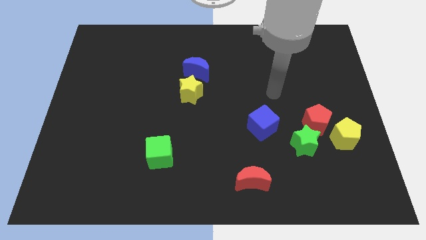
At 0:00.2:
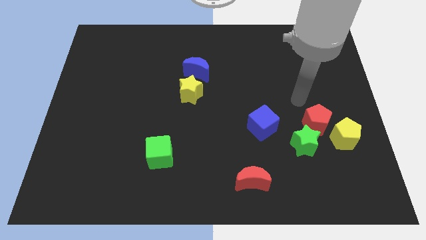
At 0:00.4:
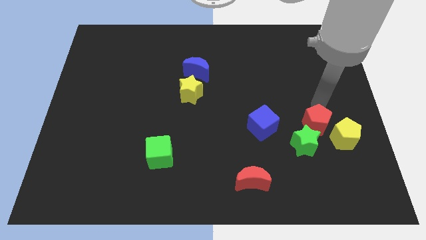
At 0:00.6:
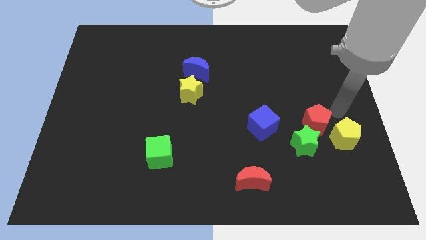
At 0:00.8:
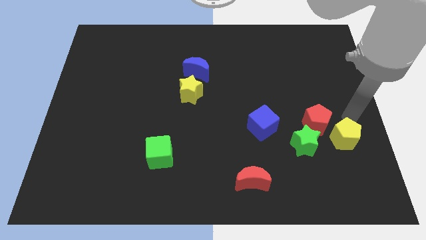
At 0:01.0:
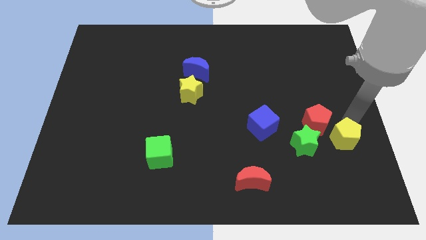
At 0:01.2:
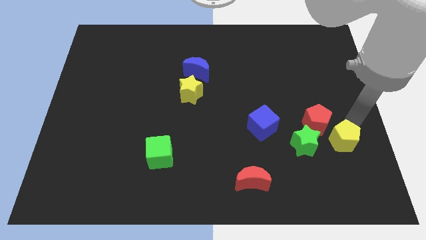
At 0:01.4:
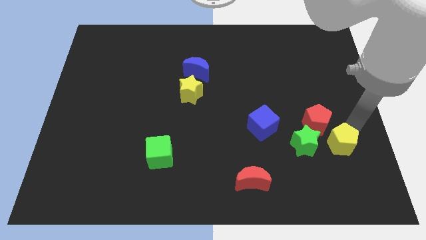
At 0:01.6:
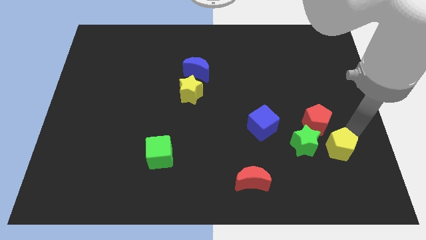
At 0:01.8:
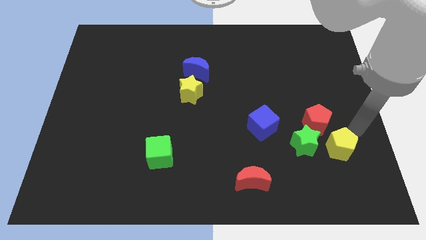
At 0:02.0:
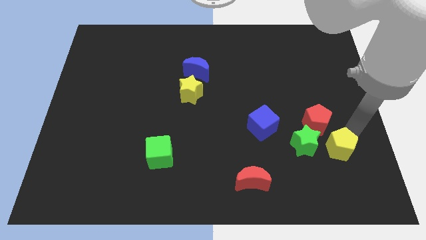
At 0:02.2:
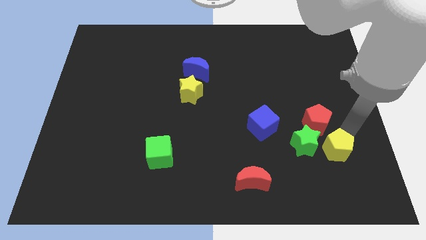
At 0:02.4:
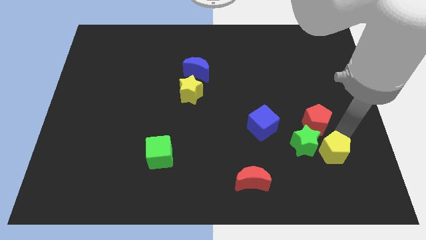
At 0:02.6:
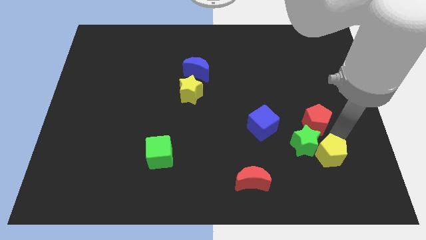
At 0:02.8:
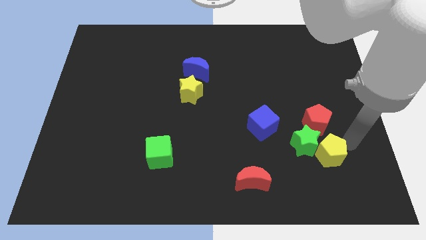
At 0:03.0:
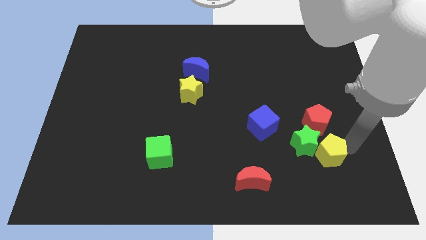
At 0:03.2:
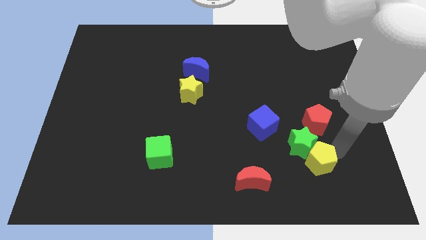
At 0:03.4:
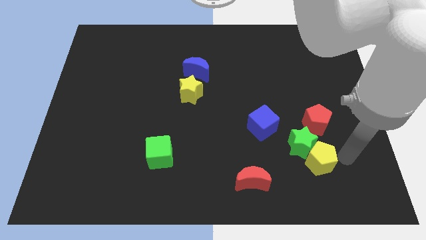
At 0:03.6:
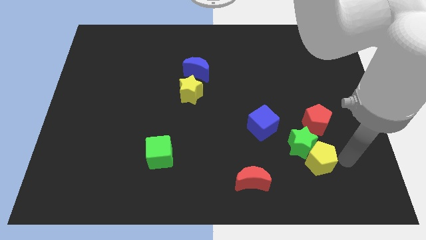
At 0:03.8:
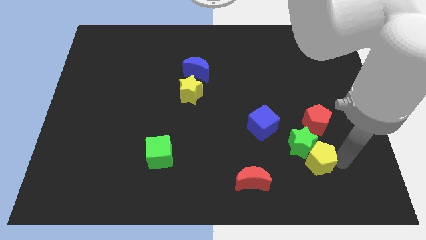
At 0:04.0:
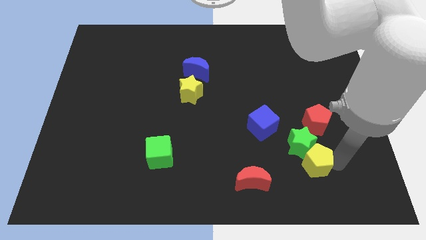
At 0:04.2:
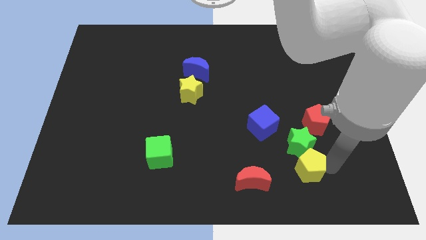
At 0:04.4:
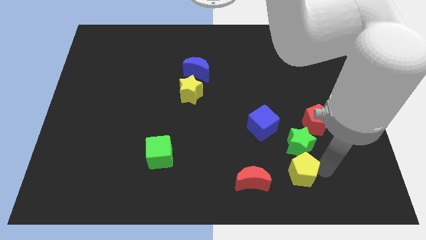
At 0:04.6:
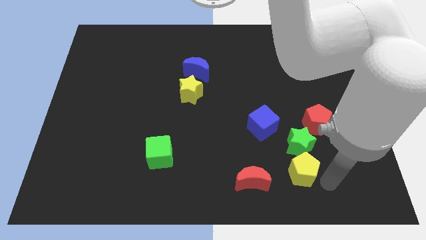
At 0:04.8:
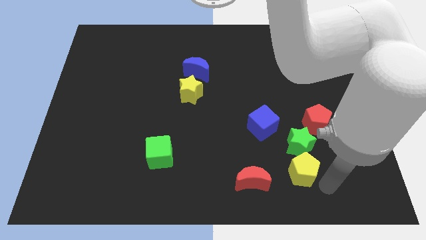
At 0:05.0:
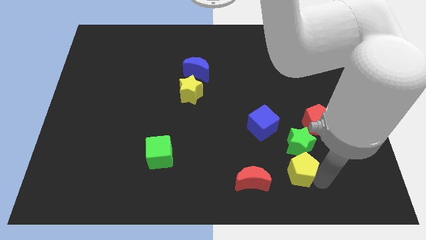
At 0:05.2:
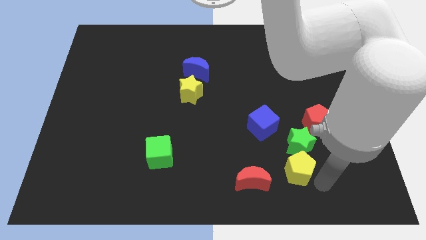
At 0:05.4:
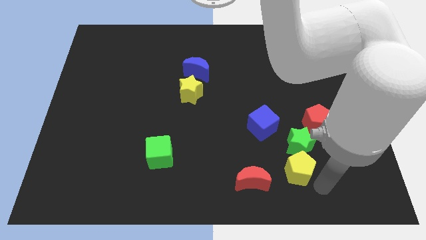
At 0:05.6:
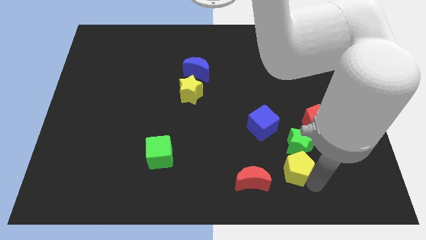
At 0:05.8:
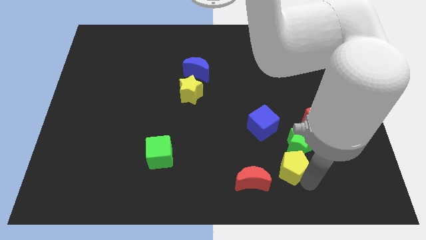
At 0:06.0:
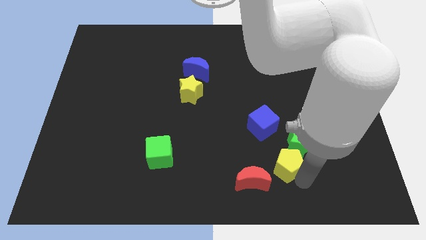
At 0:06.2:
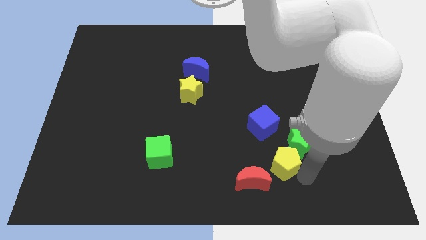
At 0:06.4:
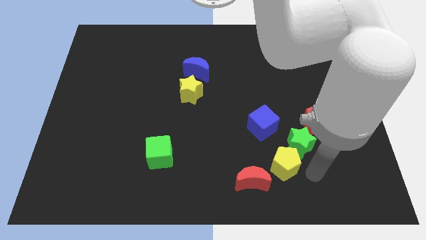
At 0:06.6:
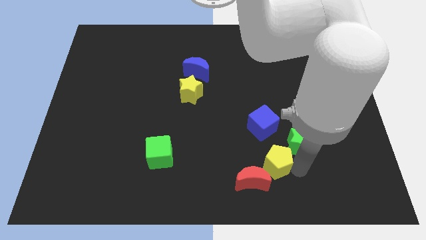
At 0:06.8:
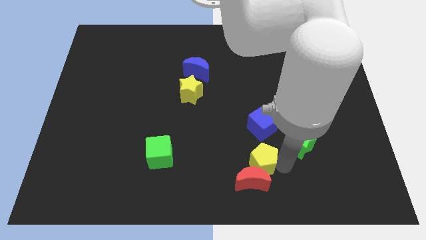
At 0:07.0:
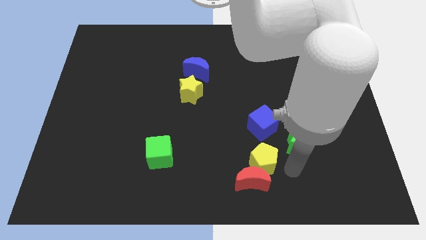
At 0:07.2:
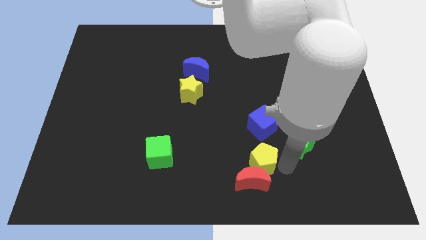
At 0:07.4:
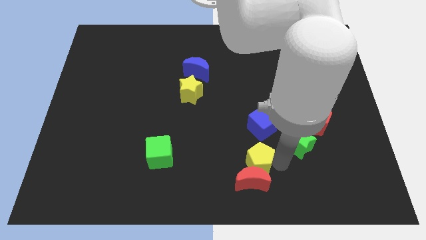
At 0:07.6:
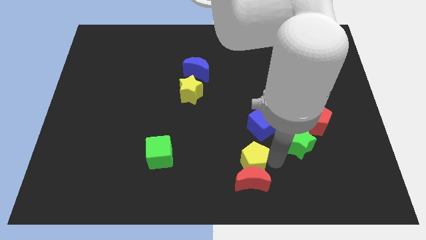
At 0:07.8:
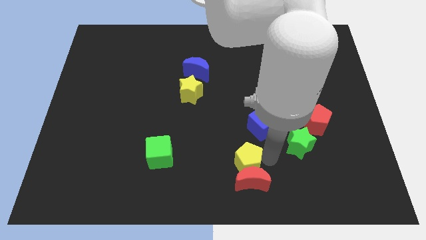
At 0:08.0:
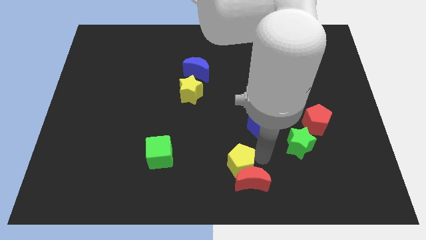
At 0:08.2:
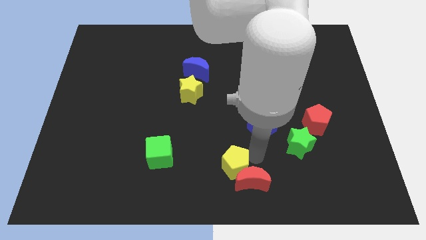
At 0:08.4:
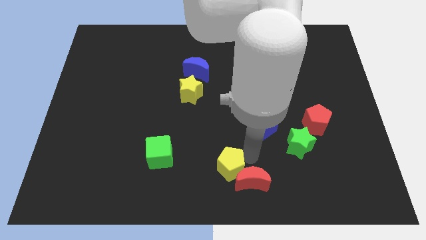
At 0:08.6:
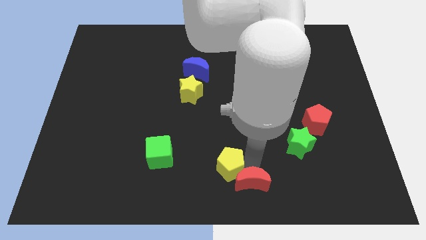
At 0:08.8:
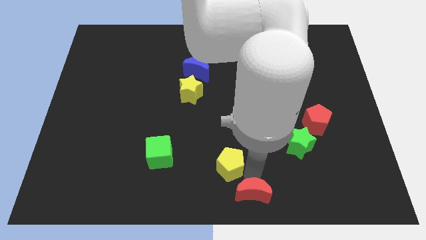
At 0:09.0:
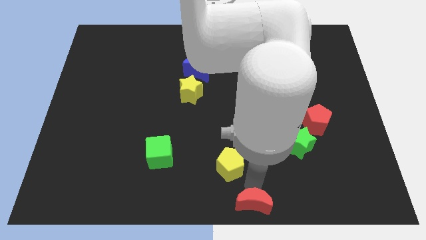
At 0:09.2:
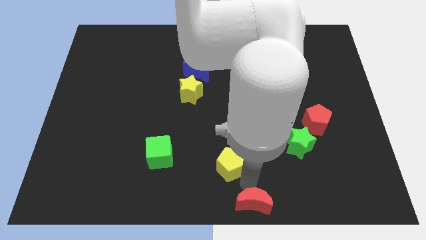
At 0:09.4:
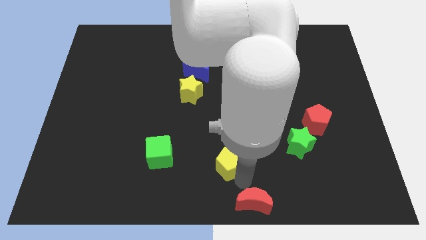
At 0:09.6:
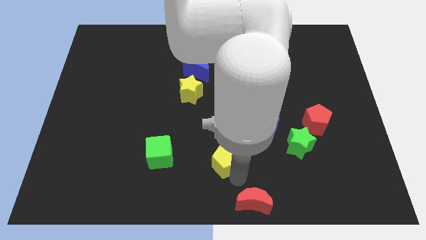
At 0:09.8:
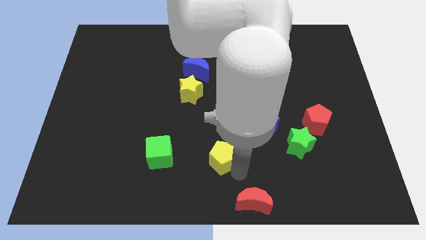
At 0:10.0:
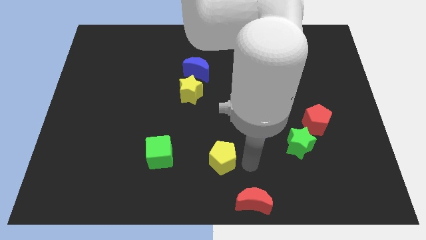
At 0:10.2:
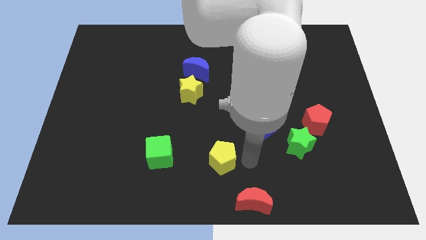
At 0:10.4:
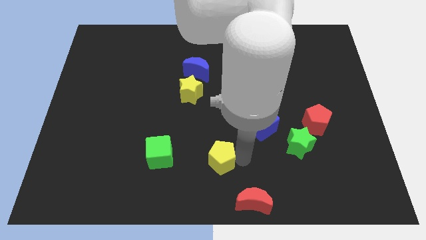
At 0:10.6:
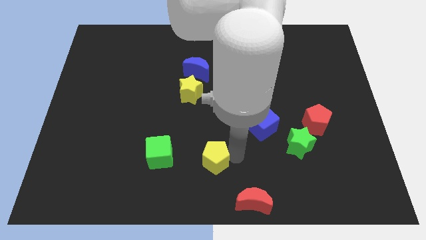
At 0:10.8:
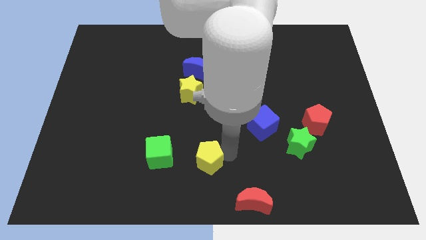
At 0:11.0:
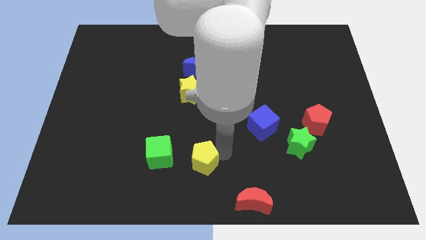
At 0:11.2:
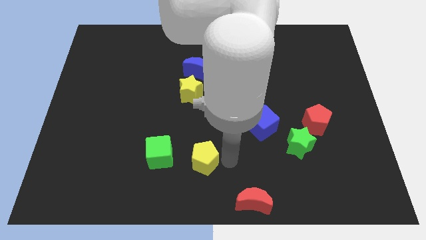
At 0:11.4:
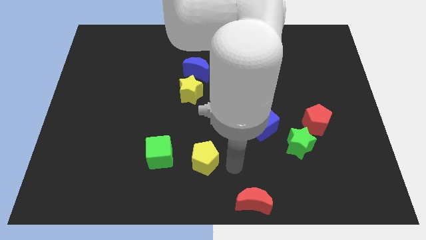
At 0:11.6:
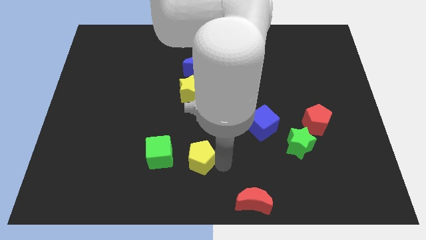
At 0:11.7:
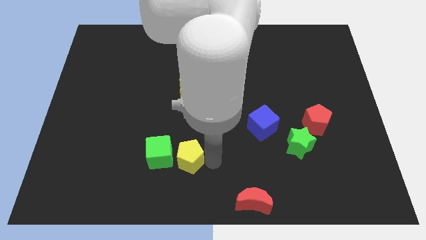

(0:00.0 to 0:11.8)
put the yellow pentagon next to the green cube

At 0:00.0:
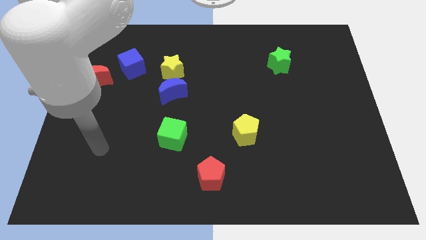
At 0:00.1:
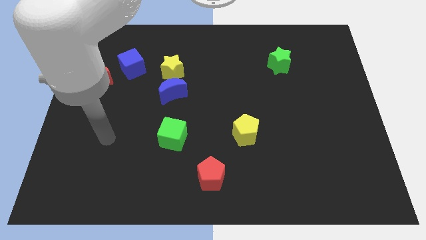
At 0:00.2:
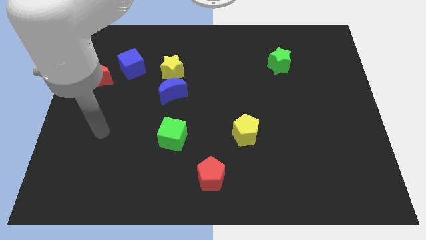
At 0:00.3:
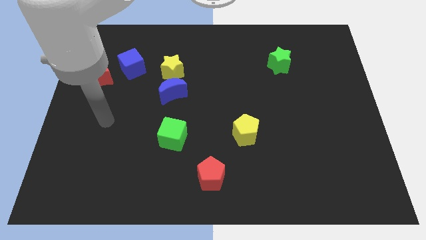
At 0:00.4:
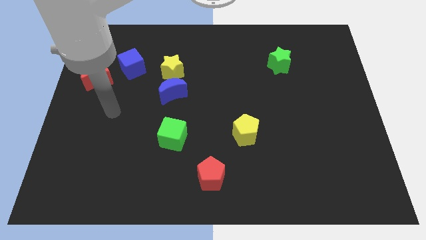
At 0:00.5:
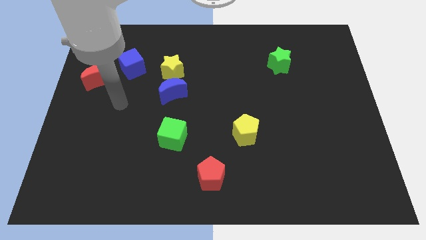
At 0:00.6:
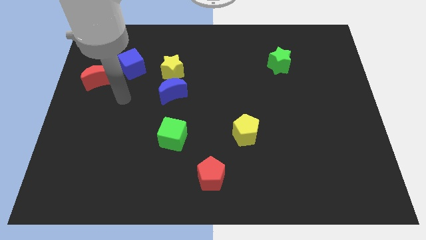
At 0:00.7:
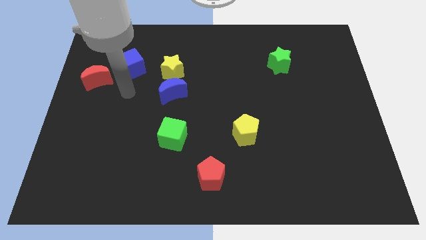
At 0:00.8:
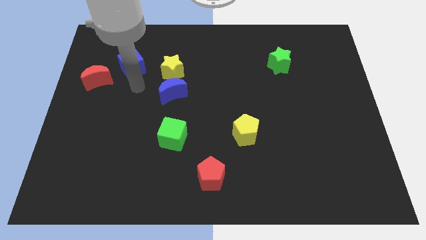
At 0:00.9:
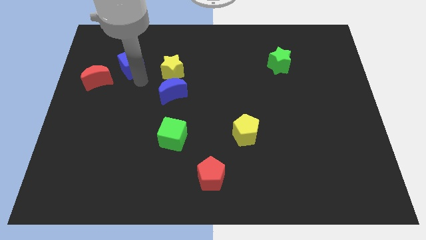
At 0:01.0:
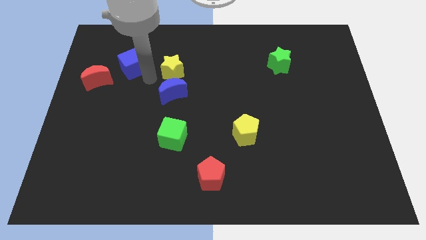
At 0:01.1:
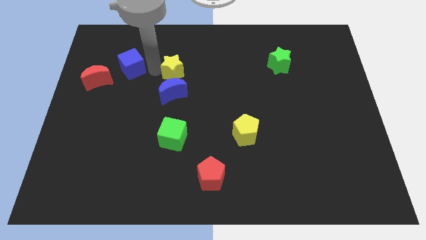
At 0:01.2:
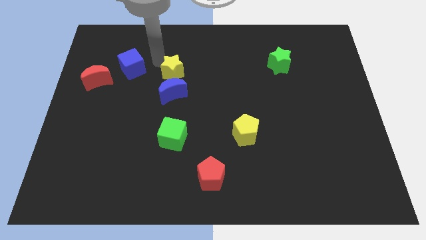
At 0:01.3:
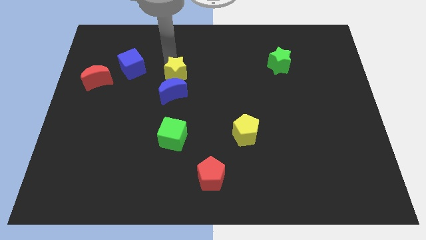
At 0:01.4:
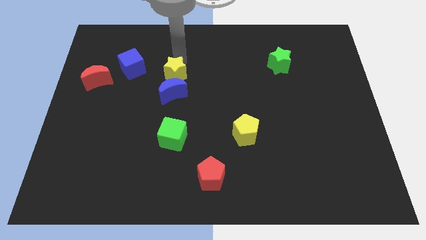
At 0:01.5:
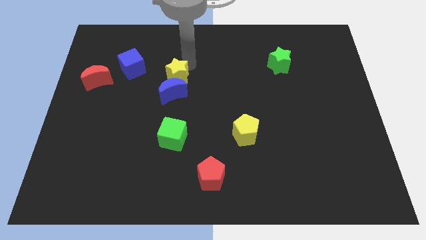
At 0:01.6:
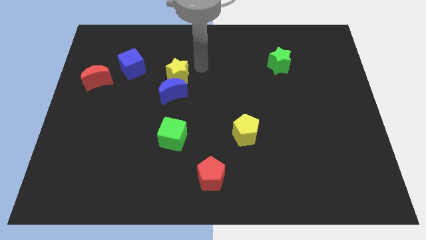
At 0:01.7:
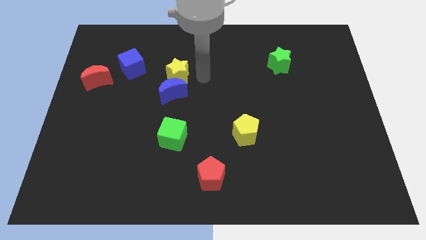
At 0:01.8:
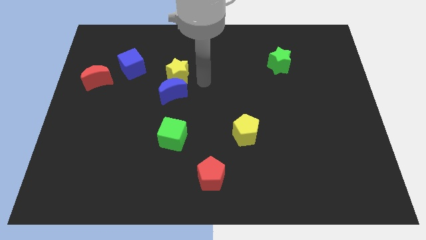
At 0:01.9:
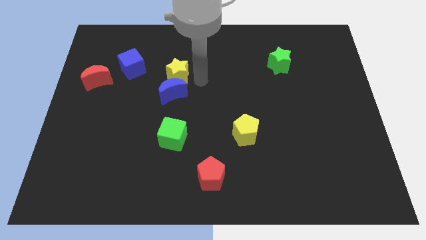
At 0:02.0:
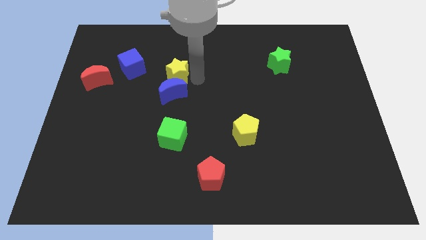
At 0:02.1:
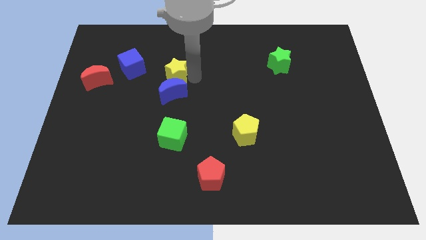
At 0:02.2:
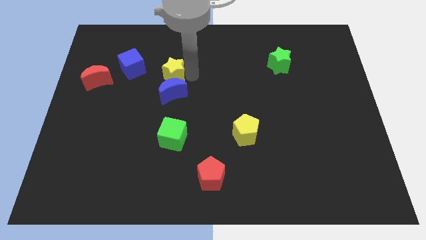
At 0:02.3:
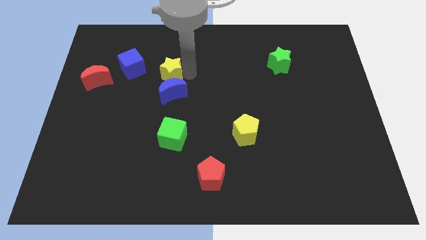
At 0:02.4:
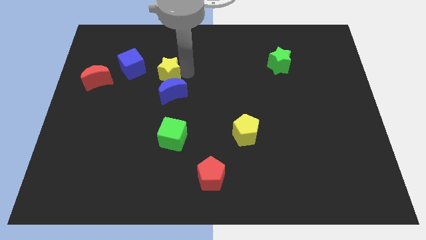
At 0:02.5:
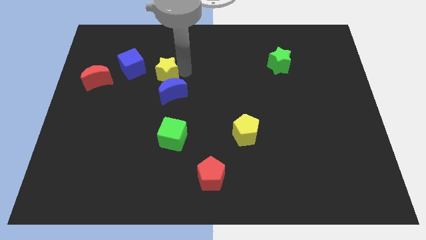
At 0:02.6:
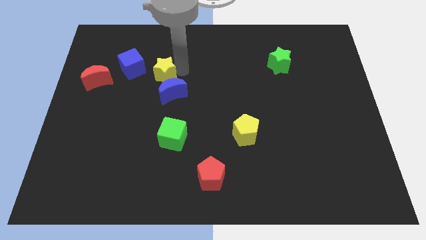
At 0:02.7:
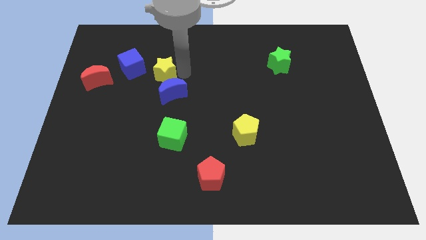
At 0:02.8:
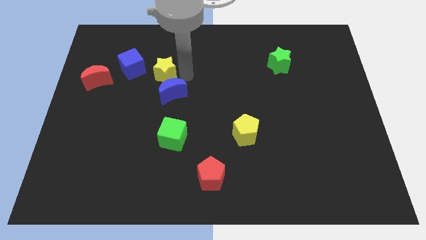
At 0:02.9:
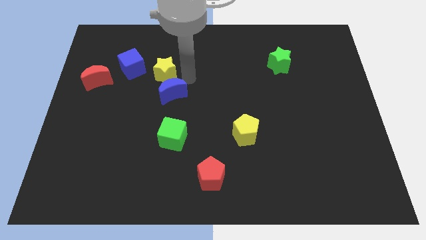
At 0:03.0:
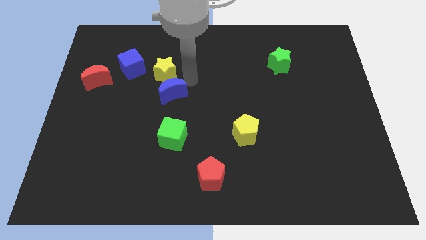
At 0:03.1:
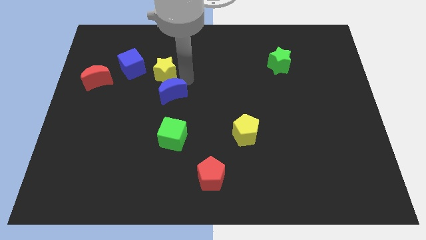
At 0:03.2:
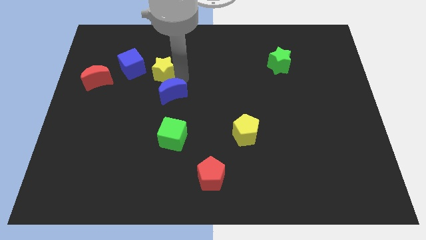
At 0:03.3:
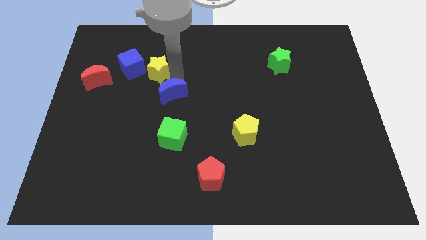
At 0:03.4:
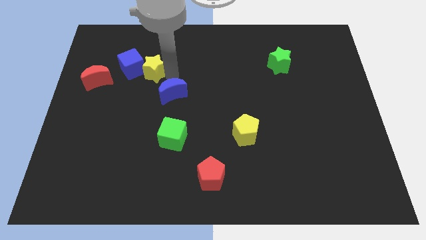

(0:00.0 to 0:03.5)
slide the yellow star towards the blue cube
